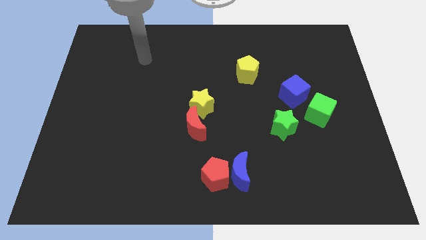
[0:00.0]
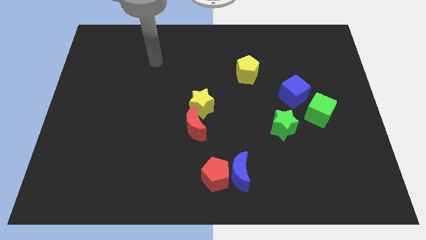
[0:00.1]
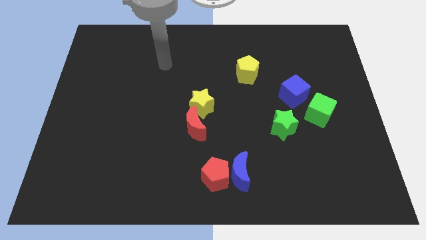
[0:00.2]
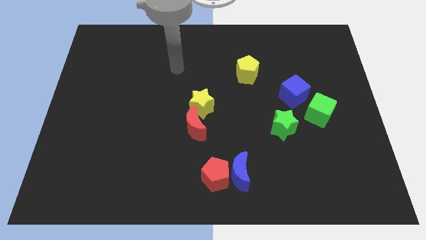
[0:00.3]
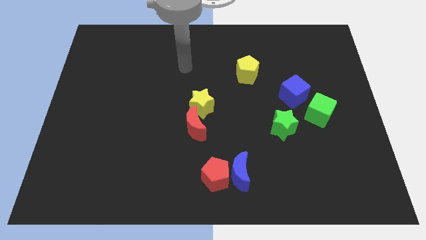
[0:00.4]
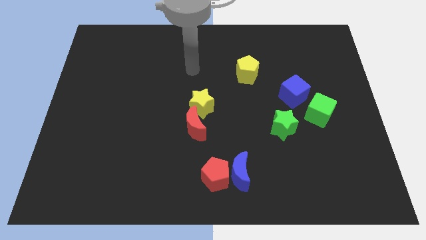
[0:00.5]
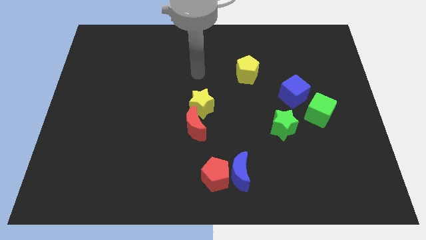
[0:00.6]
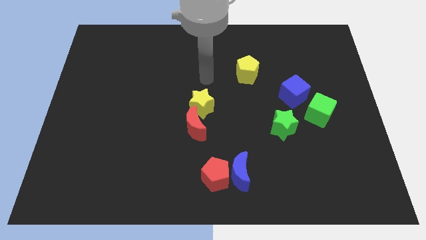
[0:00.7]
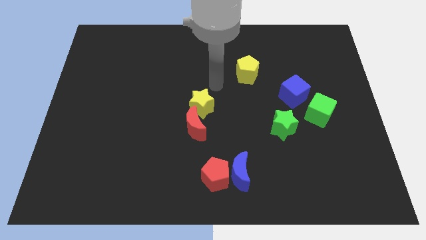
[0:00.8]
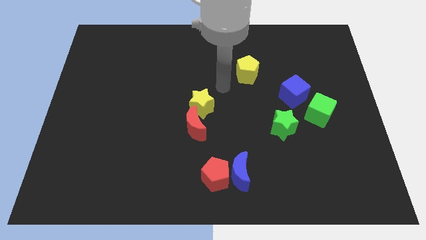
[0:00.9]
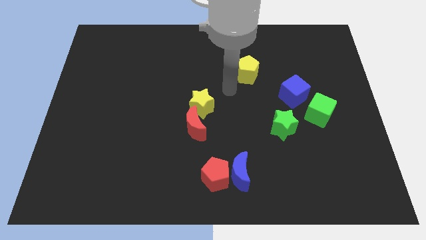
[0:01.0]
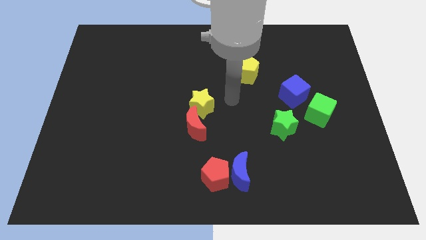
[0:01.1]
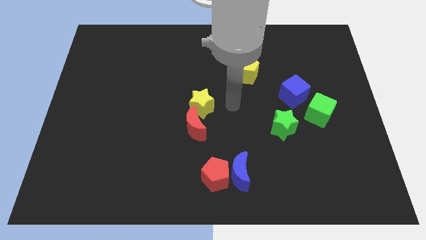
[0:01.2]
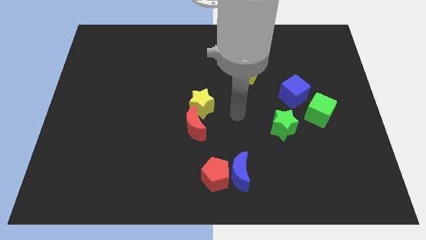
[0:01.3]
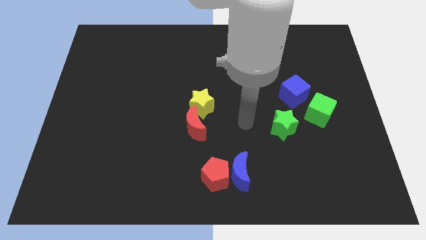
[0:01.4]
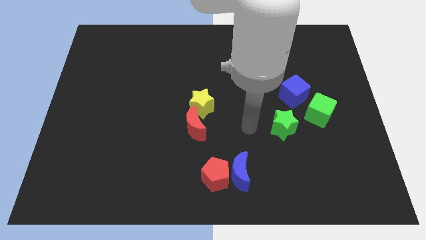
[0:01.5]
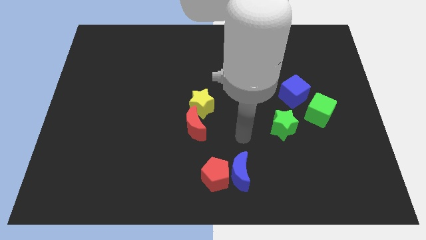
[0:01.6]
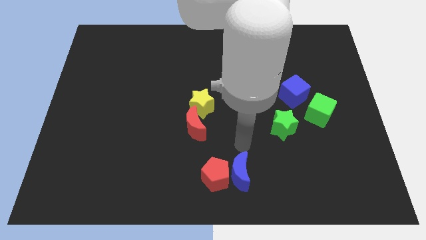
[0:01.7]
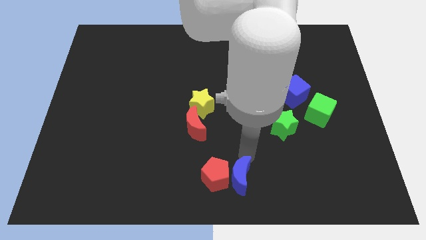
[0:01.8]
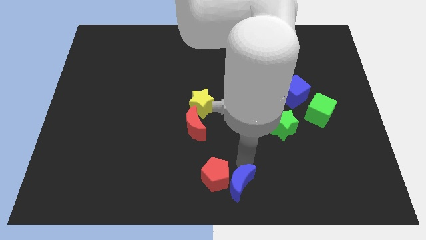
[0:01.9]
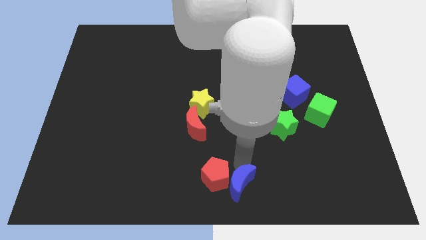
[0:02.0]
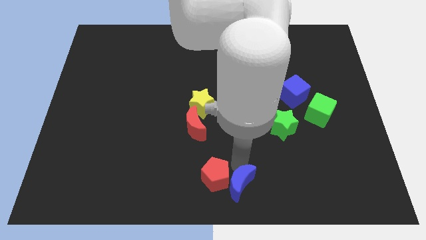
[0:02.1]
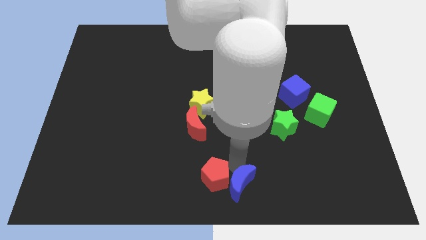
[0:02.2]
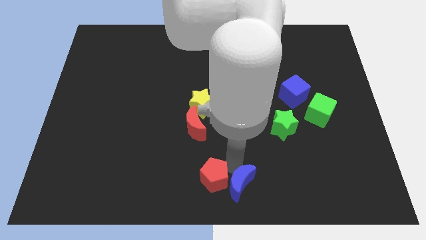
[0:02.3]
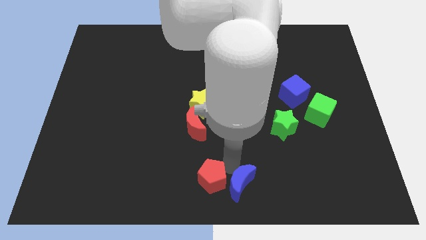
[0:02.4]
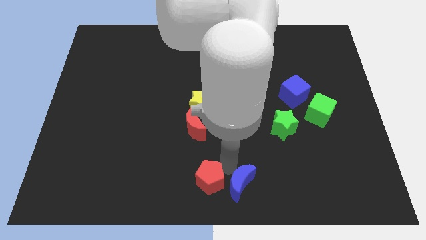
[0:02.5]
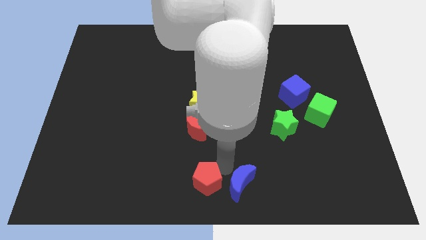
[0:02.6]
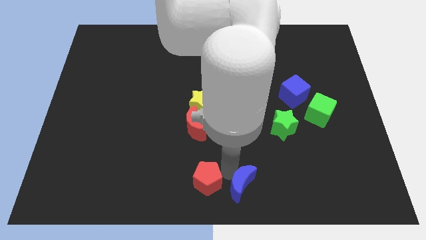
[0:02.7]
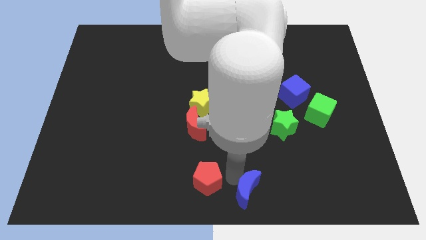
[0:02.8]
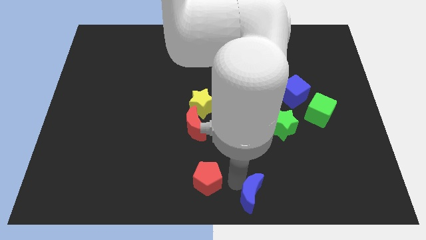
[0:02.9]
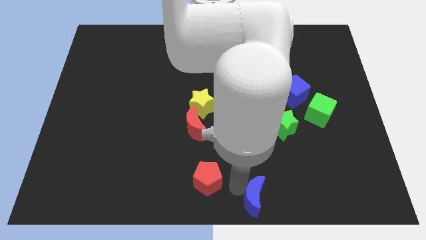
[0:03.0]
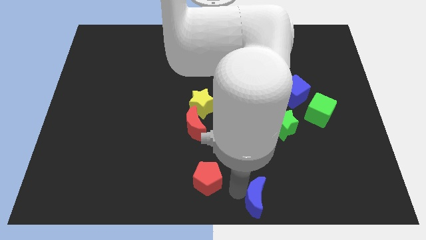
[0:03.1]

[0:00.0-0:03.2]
pull the red pentagon apart from the blue moon

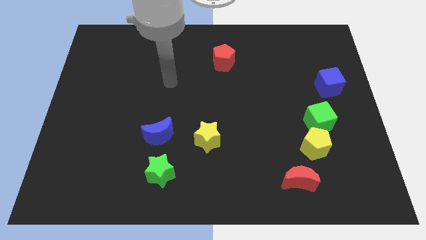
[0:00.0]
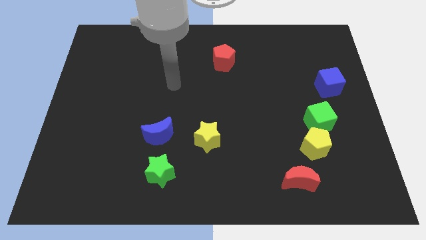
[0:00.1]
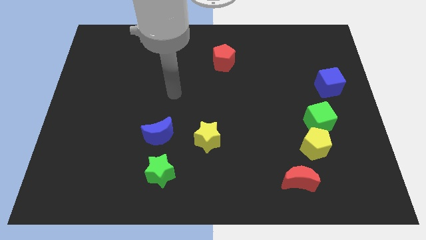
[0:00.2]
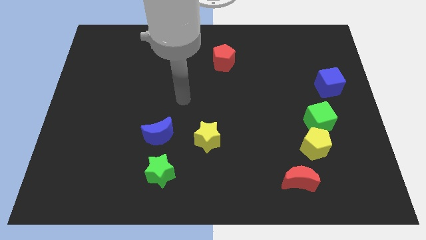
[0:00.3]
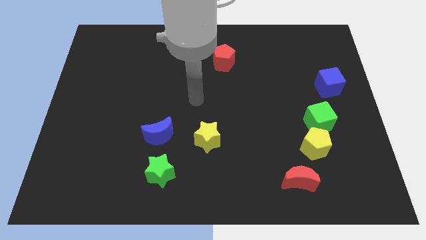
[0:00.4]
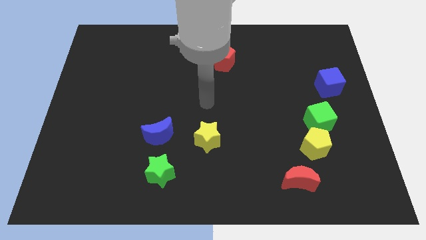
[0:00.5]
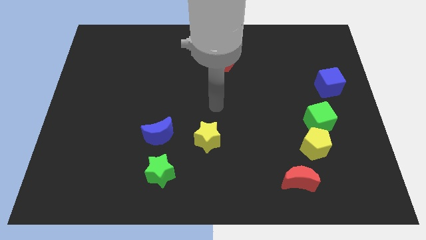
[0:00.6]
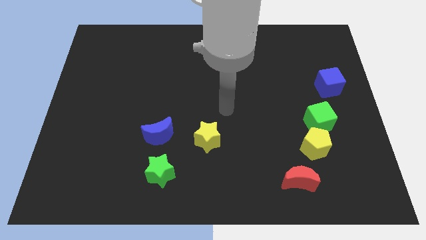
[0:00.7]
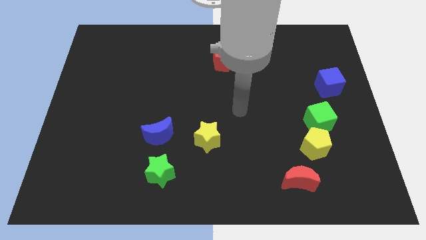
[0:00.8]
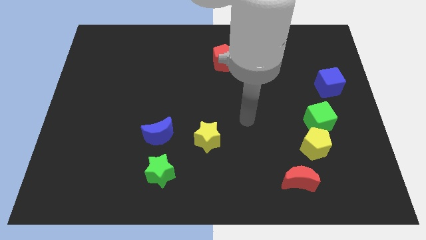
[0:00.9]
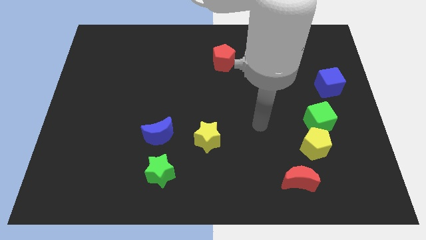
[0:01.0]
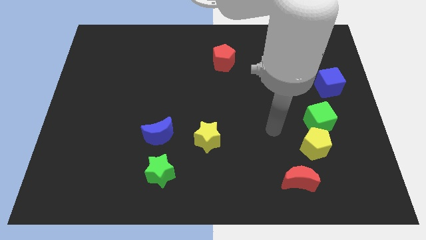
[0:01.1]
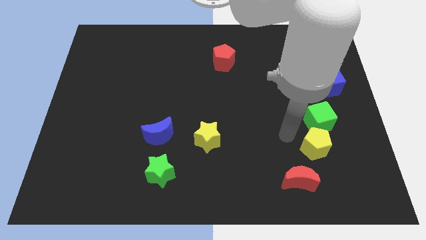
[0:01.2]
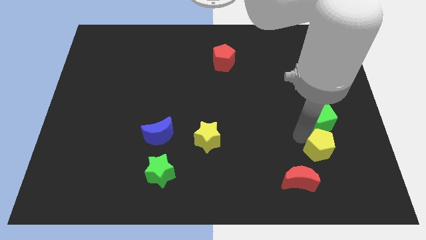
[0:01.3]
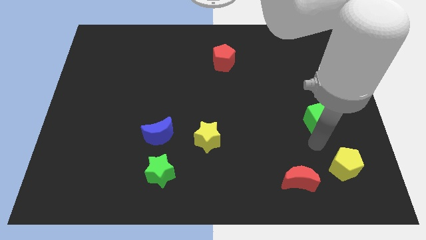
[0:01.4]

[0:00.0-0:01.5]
move the green cube away from the yellow pentagon

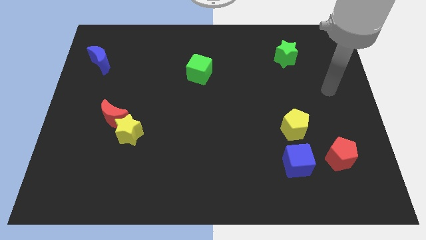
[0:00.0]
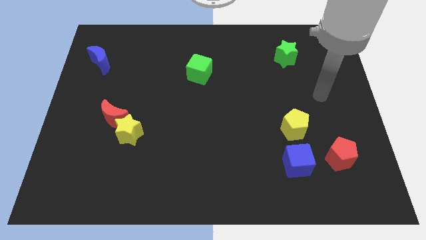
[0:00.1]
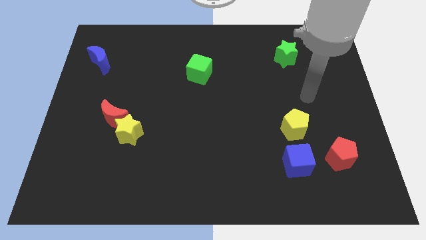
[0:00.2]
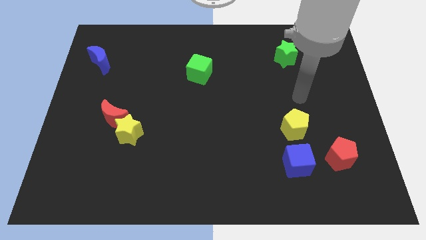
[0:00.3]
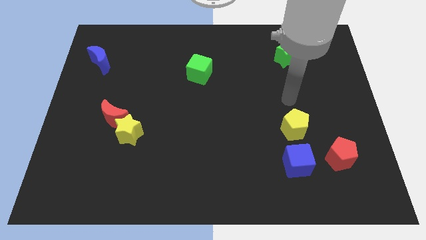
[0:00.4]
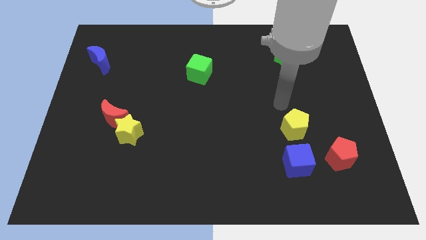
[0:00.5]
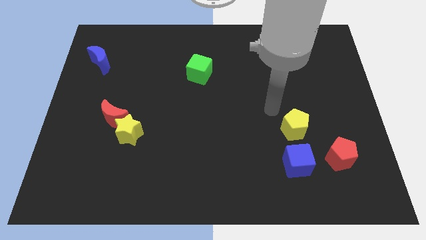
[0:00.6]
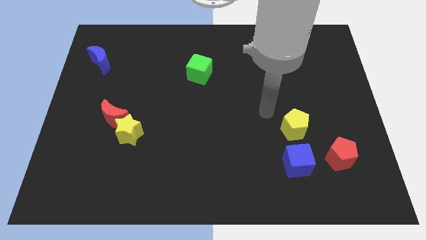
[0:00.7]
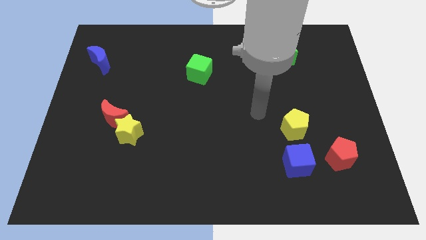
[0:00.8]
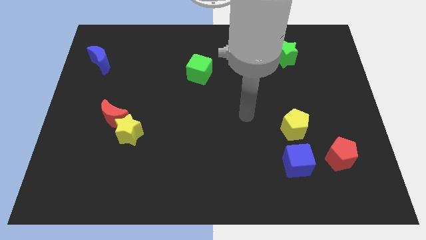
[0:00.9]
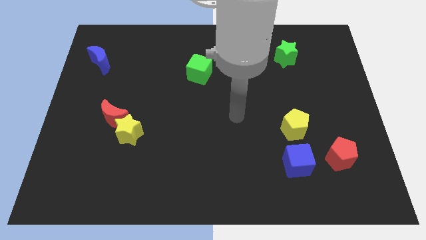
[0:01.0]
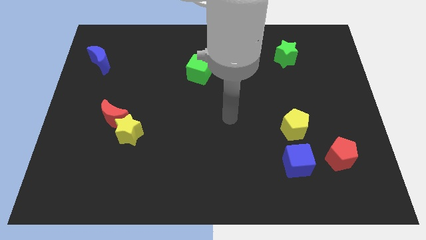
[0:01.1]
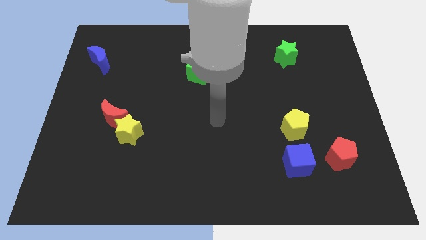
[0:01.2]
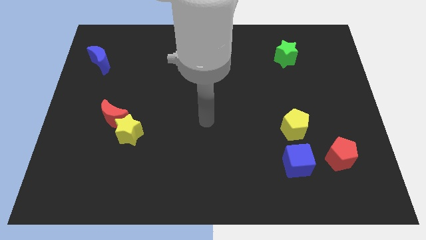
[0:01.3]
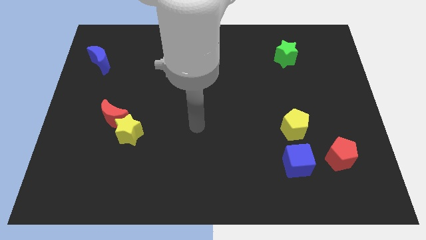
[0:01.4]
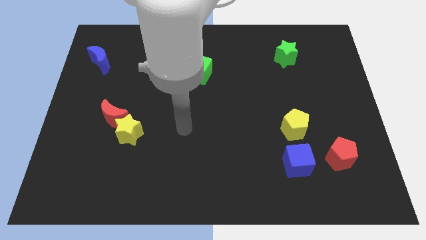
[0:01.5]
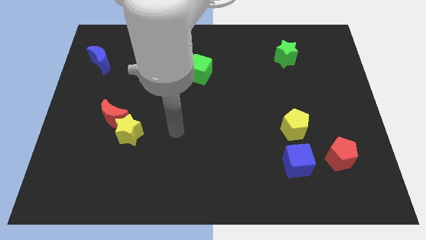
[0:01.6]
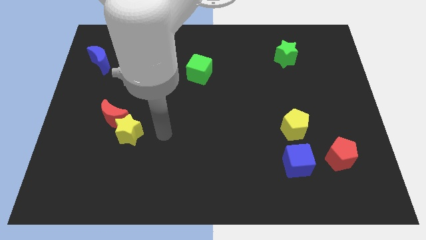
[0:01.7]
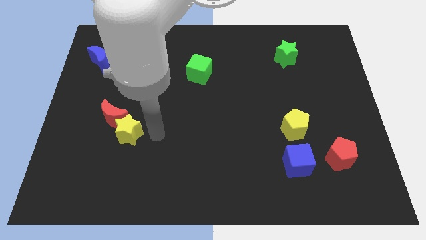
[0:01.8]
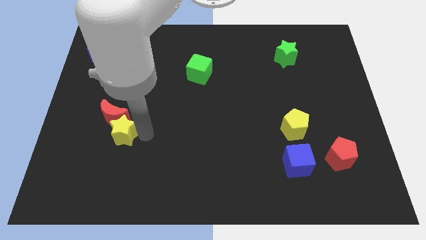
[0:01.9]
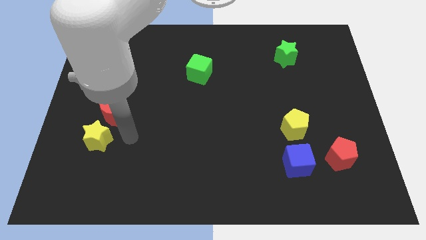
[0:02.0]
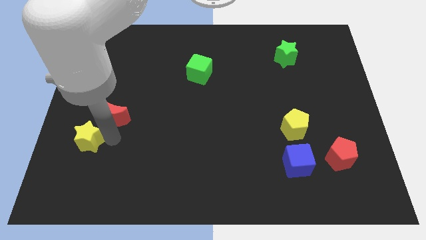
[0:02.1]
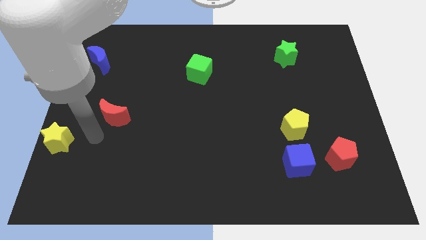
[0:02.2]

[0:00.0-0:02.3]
separate the red moon from the yellow star

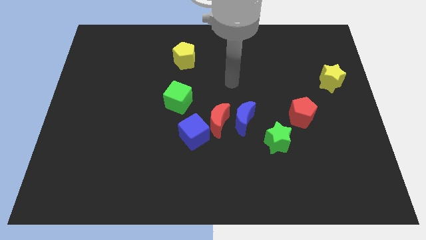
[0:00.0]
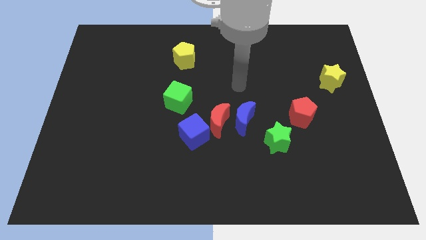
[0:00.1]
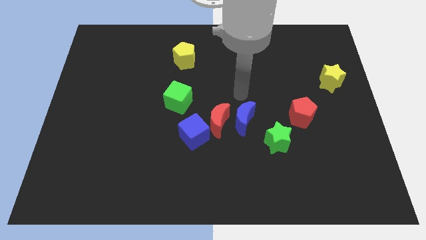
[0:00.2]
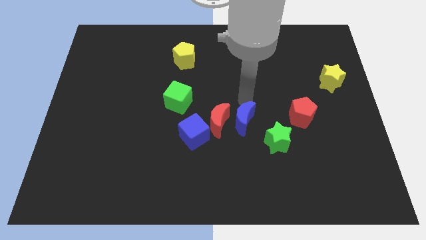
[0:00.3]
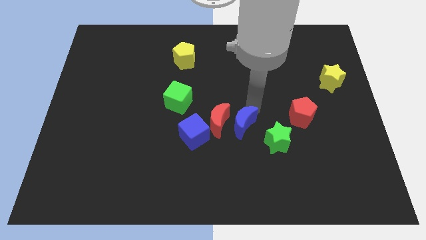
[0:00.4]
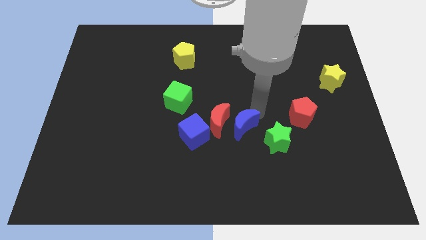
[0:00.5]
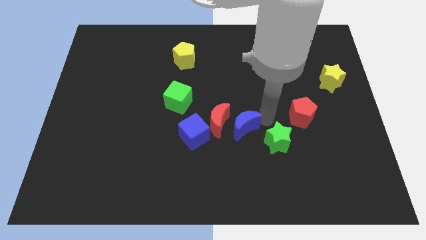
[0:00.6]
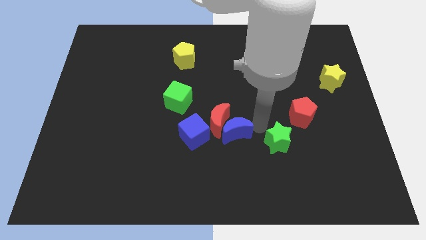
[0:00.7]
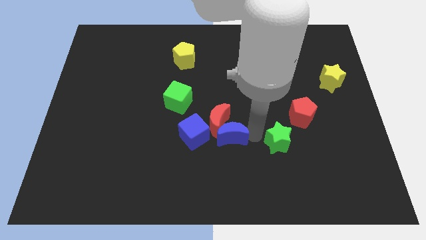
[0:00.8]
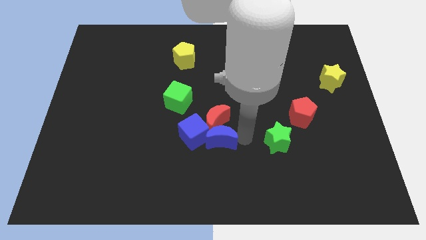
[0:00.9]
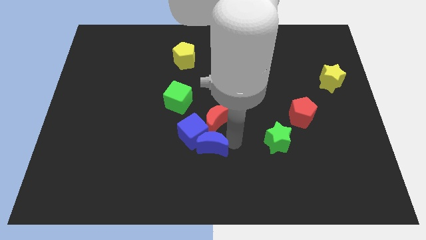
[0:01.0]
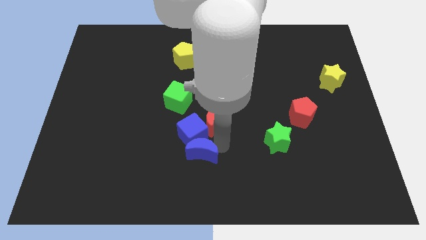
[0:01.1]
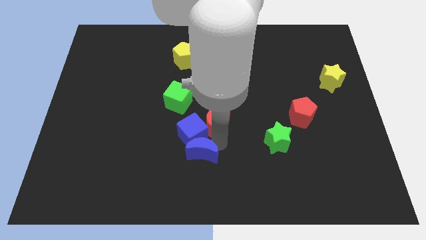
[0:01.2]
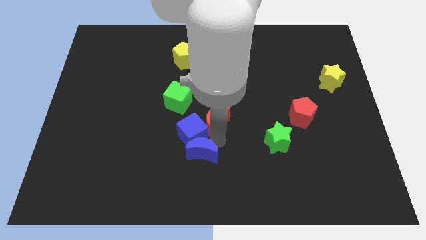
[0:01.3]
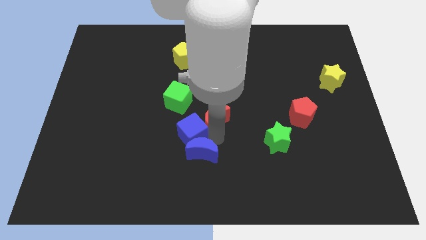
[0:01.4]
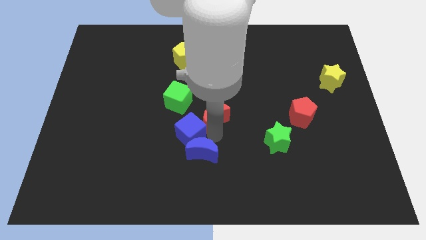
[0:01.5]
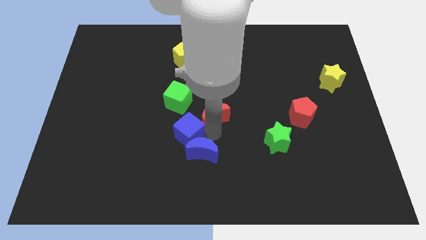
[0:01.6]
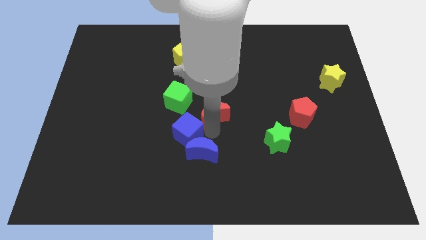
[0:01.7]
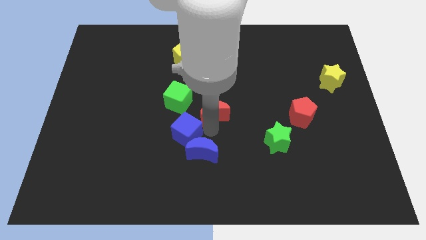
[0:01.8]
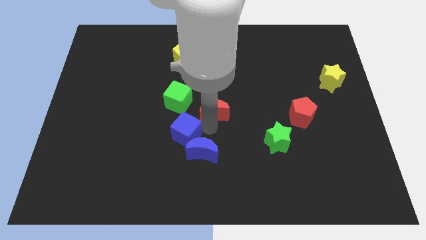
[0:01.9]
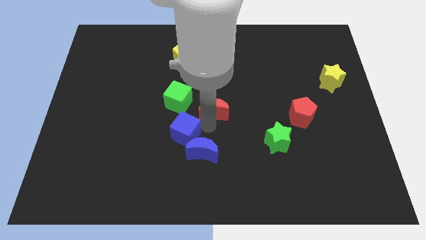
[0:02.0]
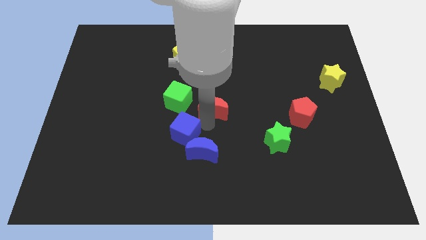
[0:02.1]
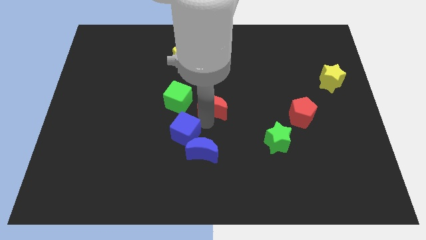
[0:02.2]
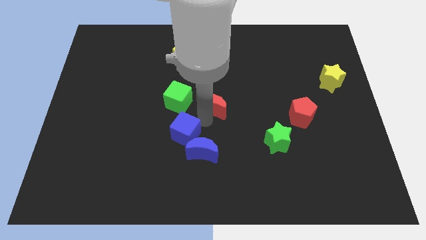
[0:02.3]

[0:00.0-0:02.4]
separate the red moon from the blue moon and blue cube

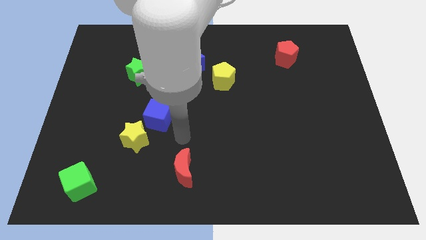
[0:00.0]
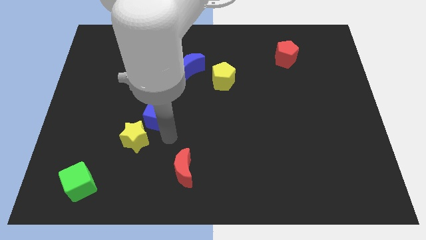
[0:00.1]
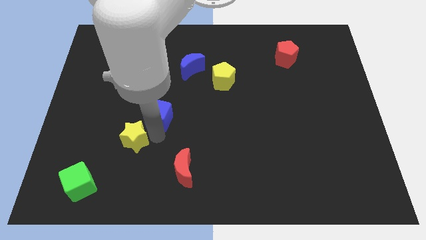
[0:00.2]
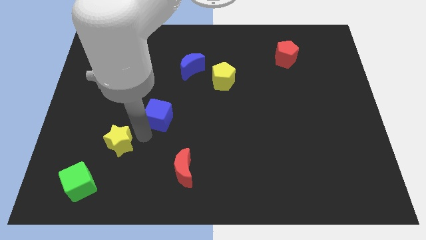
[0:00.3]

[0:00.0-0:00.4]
pull the blue cube apart from the yellow star
